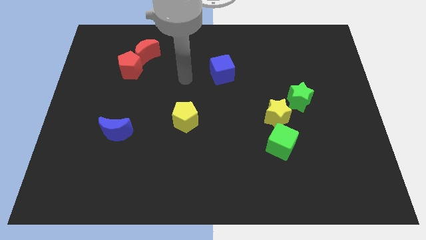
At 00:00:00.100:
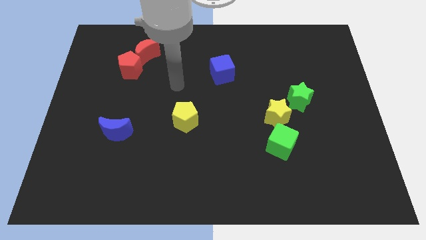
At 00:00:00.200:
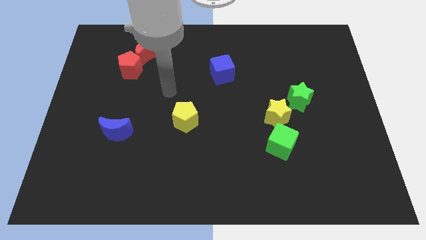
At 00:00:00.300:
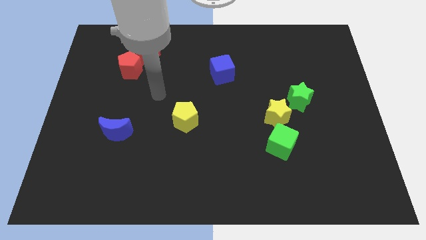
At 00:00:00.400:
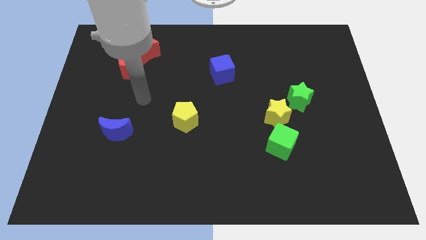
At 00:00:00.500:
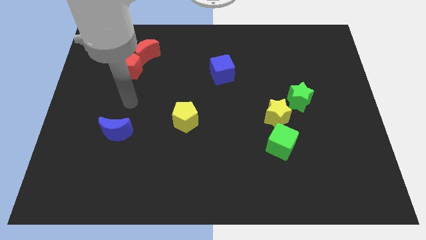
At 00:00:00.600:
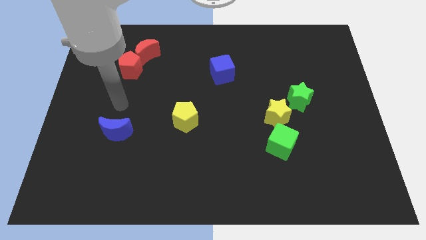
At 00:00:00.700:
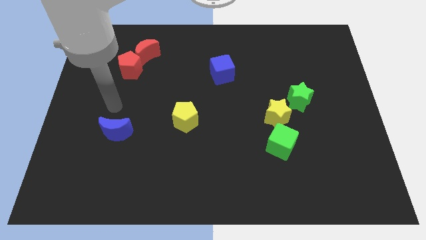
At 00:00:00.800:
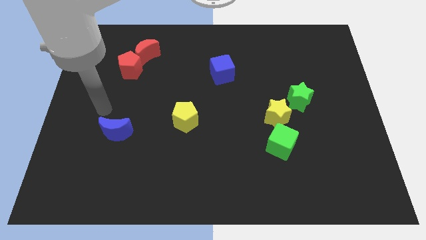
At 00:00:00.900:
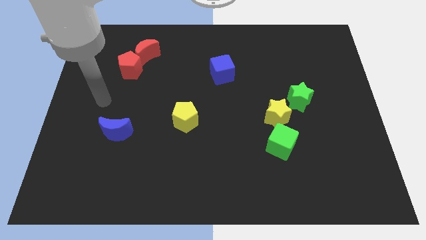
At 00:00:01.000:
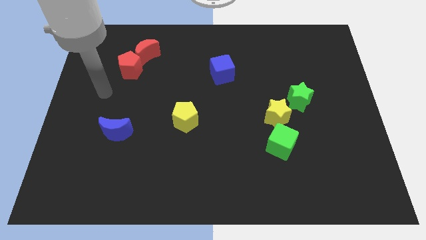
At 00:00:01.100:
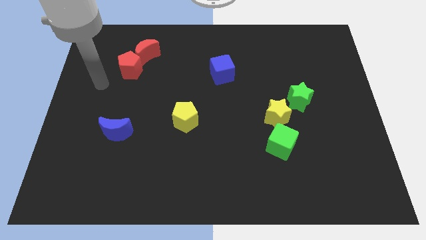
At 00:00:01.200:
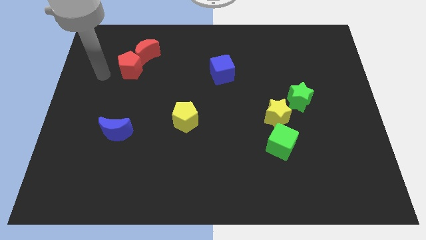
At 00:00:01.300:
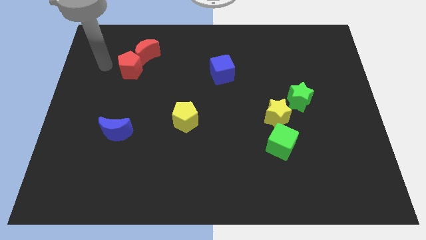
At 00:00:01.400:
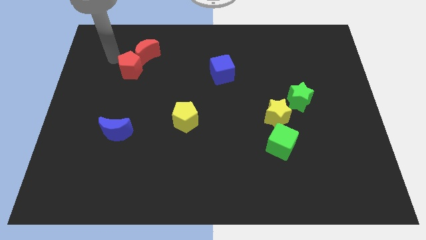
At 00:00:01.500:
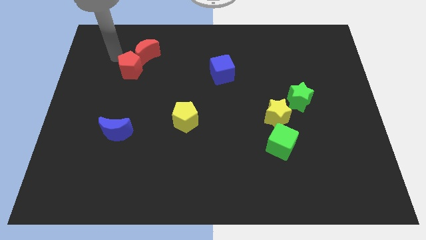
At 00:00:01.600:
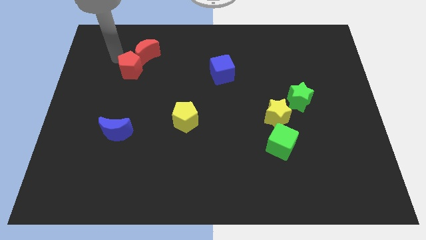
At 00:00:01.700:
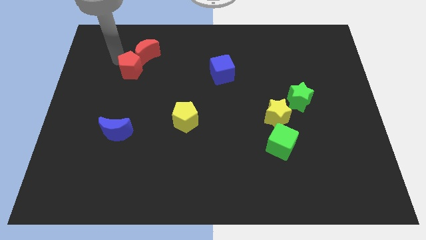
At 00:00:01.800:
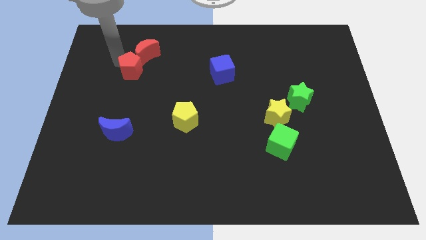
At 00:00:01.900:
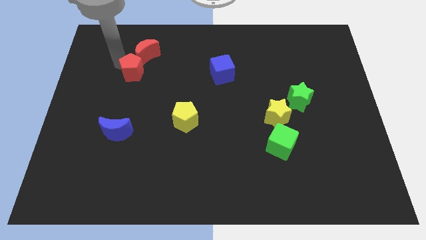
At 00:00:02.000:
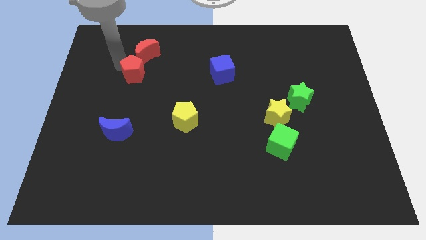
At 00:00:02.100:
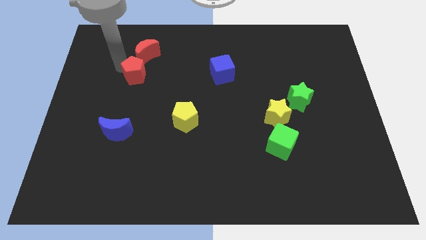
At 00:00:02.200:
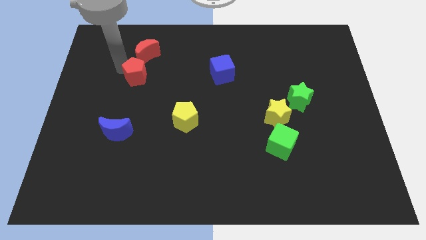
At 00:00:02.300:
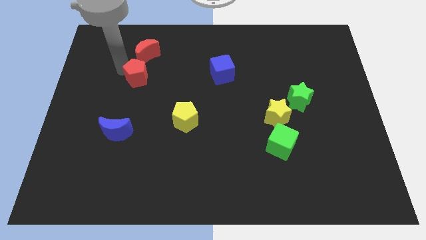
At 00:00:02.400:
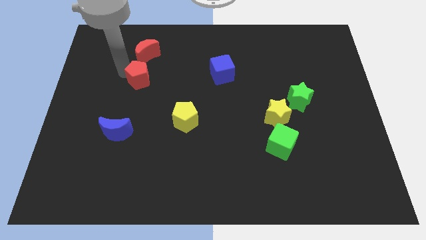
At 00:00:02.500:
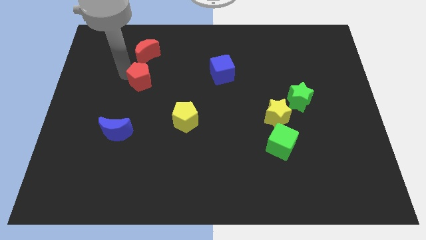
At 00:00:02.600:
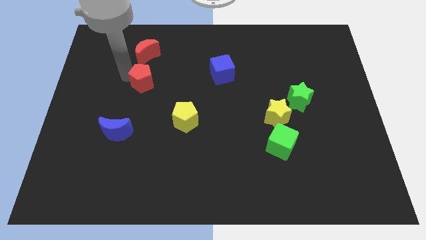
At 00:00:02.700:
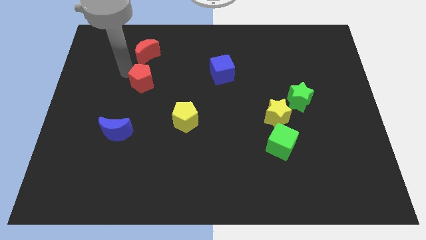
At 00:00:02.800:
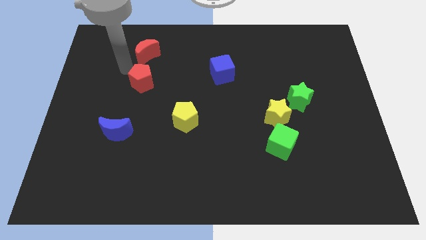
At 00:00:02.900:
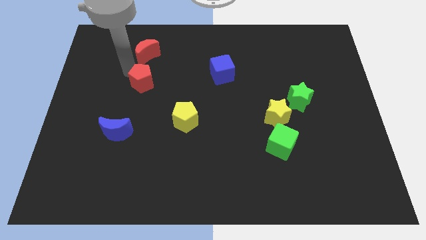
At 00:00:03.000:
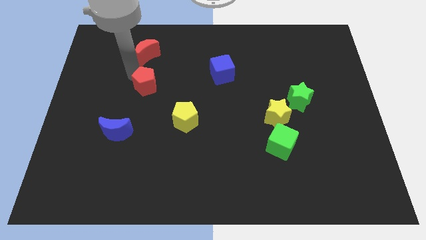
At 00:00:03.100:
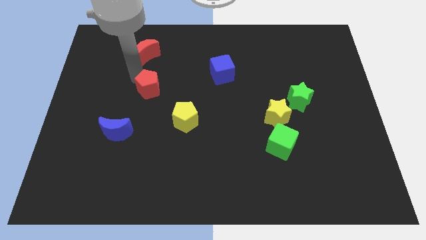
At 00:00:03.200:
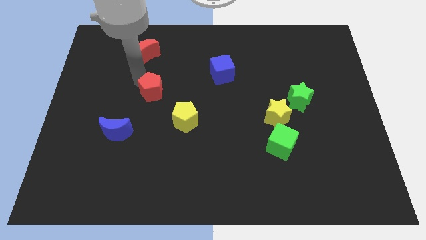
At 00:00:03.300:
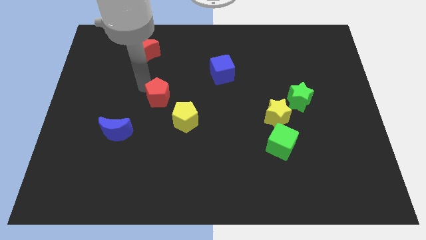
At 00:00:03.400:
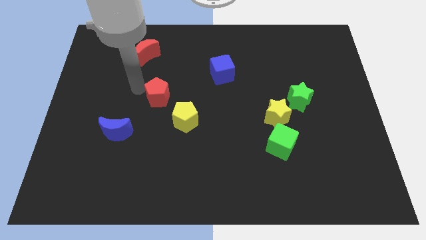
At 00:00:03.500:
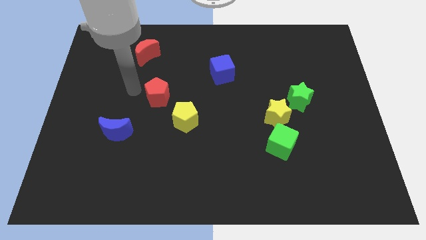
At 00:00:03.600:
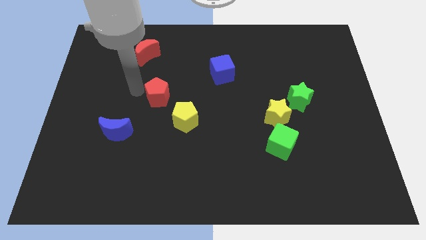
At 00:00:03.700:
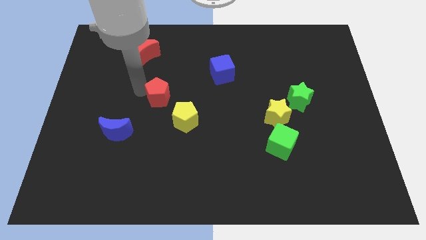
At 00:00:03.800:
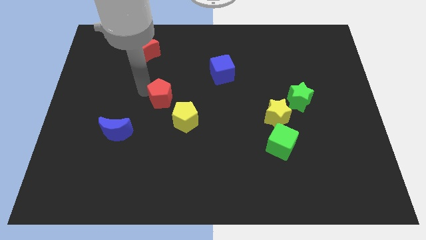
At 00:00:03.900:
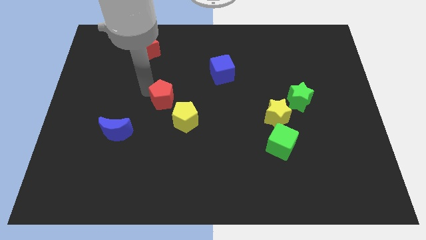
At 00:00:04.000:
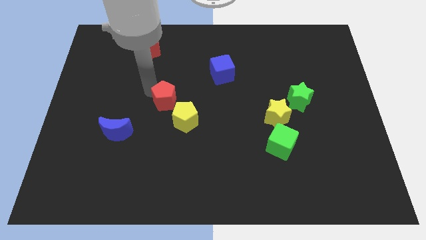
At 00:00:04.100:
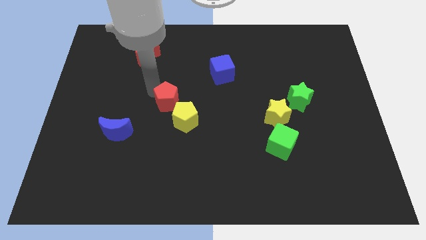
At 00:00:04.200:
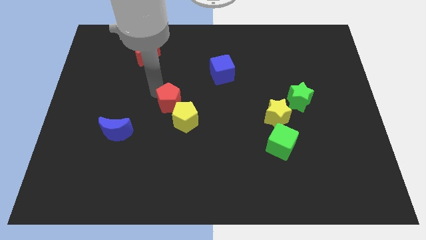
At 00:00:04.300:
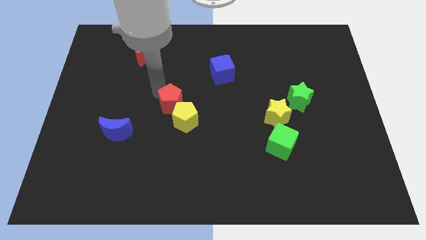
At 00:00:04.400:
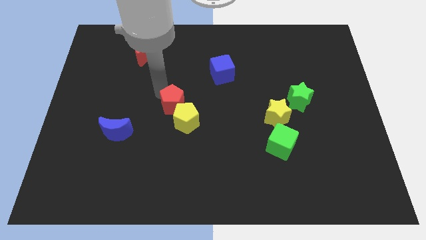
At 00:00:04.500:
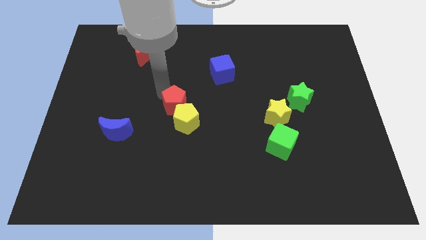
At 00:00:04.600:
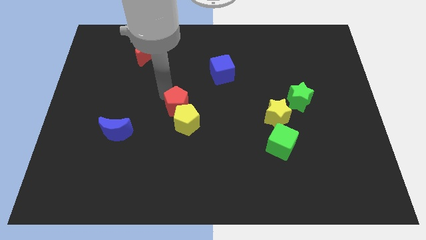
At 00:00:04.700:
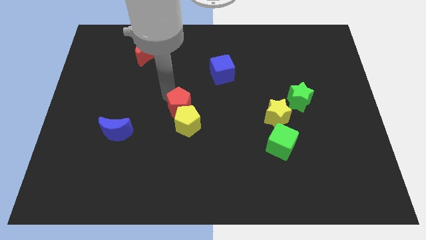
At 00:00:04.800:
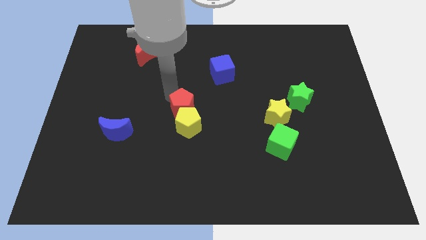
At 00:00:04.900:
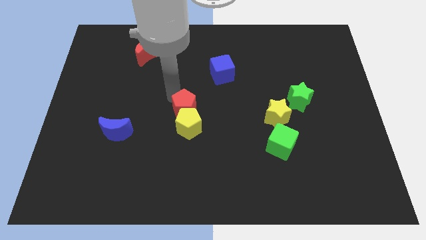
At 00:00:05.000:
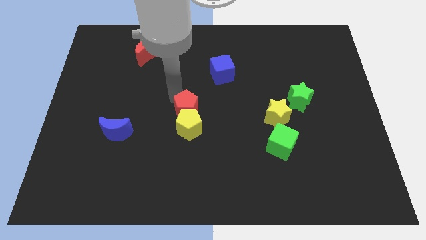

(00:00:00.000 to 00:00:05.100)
slide the red pentagon downwards and then to the right

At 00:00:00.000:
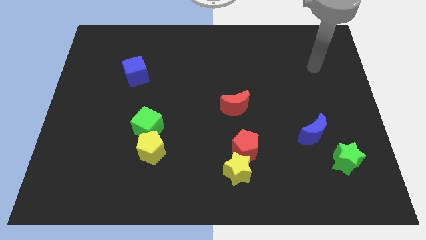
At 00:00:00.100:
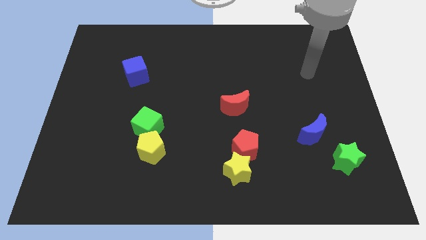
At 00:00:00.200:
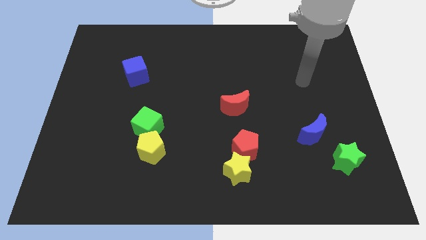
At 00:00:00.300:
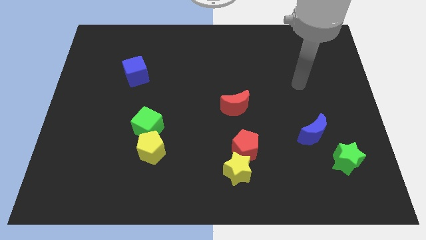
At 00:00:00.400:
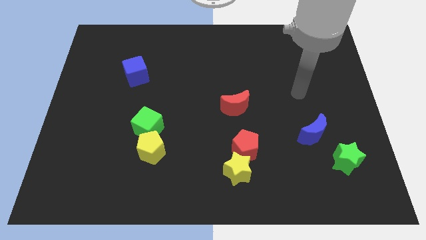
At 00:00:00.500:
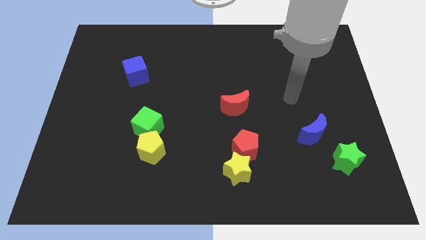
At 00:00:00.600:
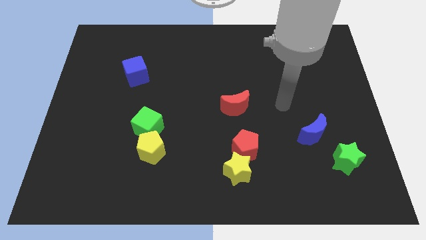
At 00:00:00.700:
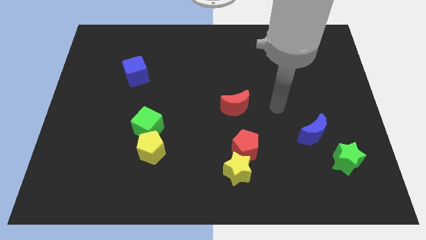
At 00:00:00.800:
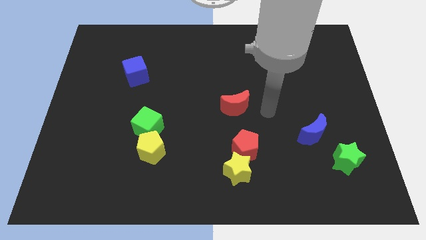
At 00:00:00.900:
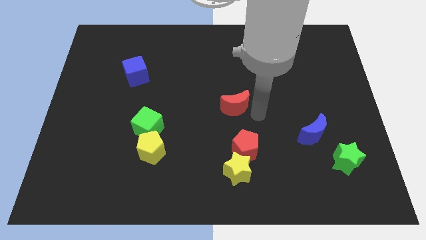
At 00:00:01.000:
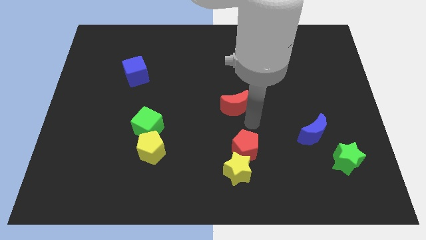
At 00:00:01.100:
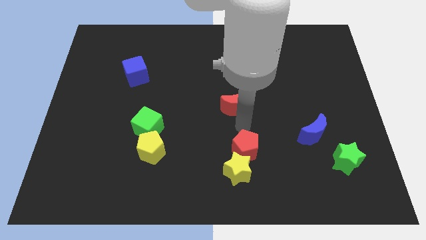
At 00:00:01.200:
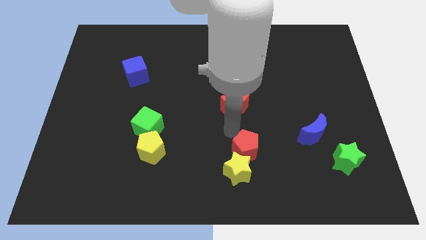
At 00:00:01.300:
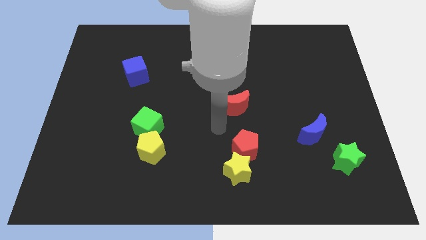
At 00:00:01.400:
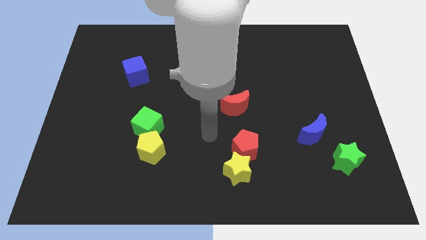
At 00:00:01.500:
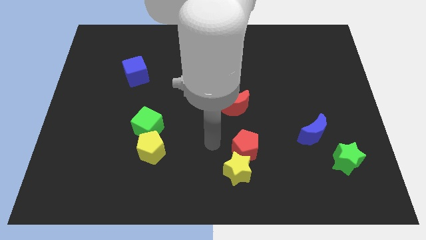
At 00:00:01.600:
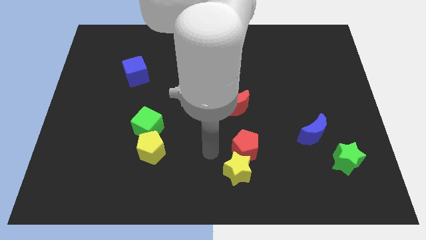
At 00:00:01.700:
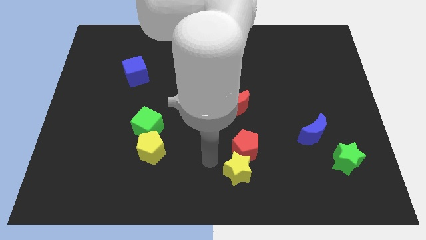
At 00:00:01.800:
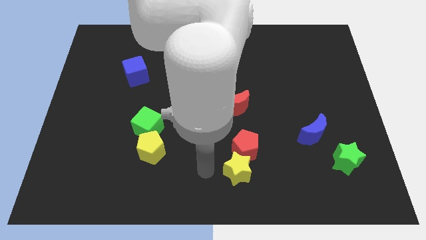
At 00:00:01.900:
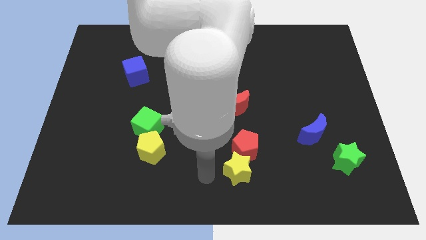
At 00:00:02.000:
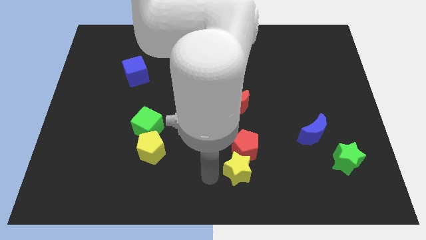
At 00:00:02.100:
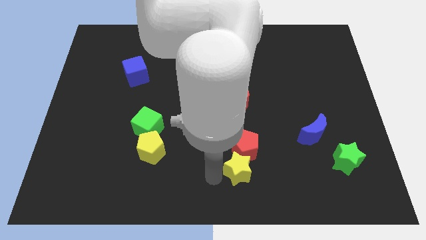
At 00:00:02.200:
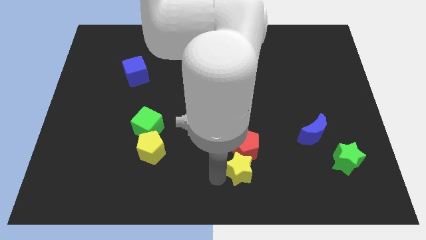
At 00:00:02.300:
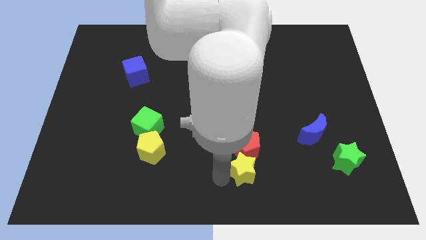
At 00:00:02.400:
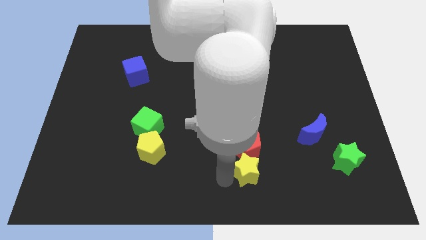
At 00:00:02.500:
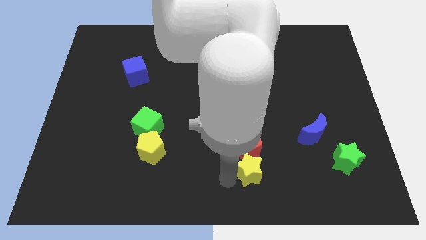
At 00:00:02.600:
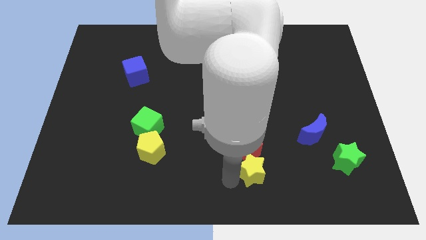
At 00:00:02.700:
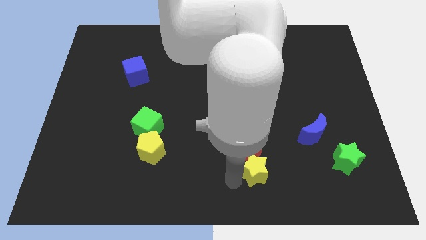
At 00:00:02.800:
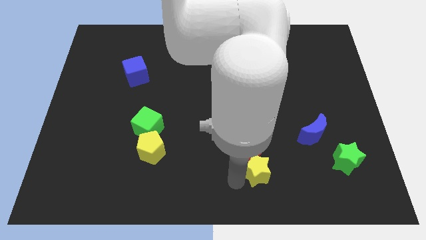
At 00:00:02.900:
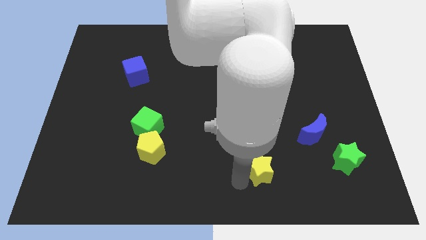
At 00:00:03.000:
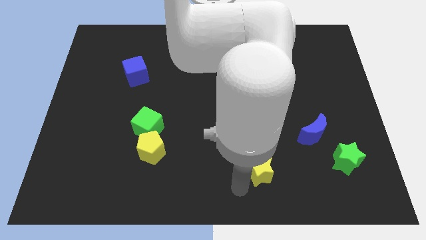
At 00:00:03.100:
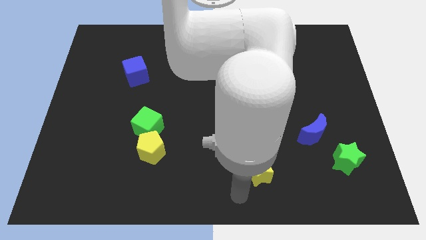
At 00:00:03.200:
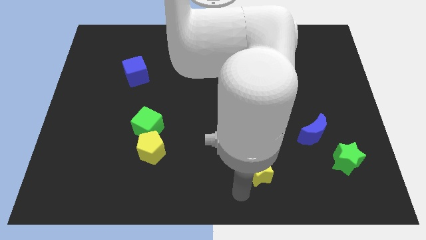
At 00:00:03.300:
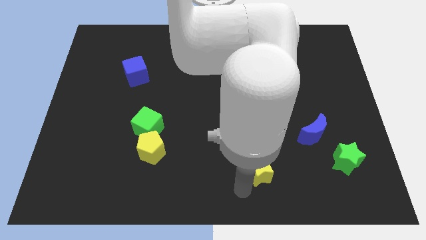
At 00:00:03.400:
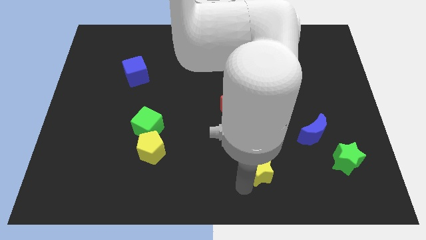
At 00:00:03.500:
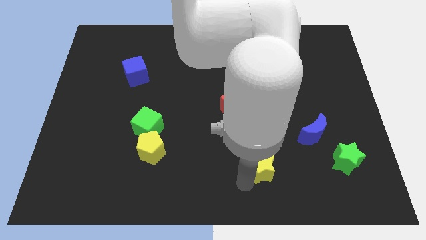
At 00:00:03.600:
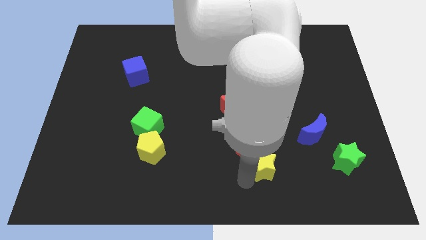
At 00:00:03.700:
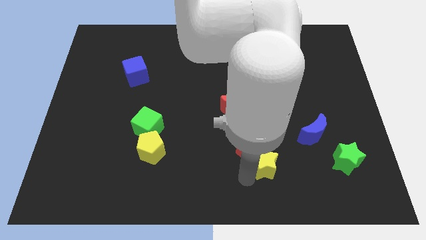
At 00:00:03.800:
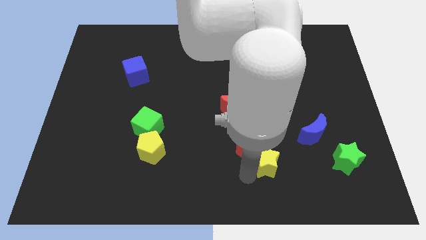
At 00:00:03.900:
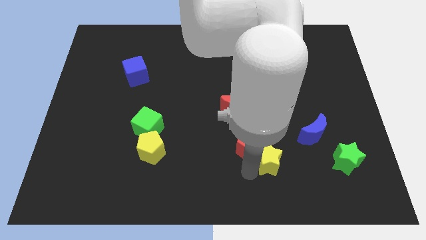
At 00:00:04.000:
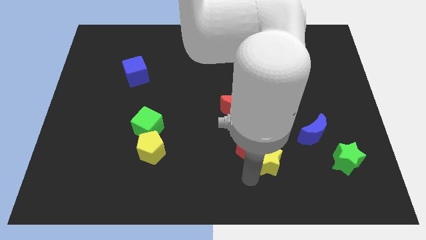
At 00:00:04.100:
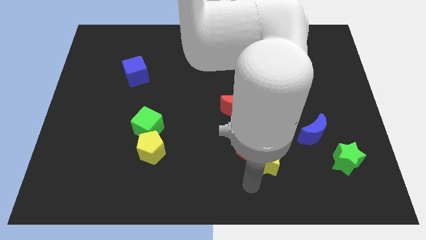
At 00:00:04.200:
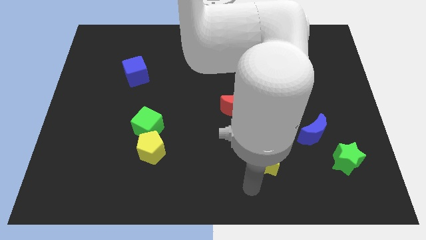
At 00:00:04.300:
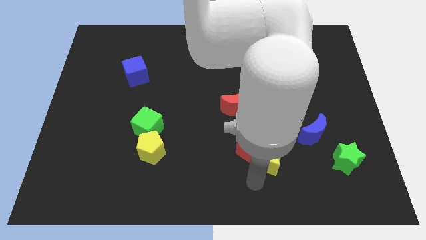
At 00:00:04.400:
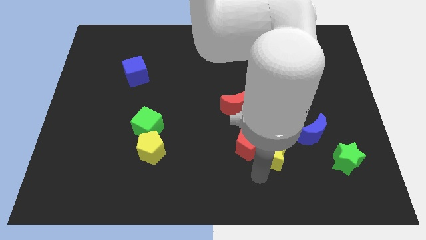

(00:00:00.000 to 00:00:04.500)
slightly slide the yellow star up and then right
